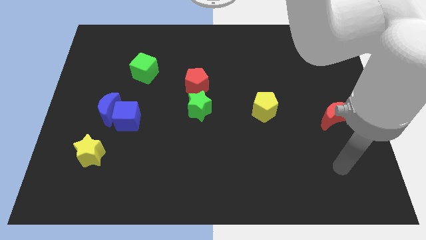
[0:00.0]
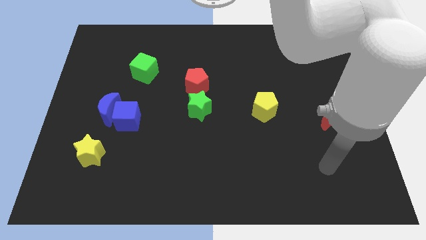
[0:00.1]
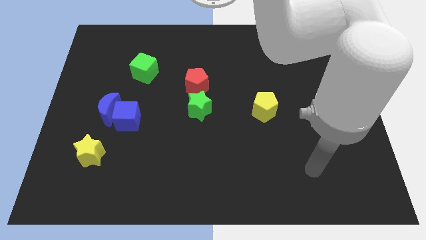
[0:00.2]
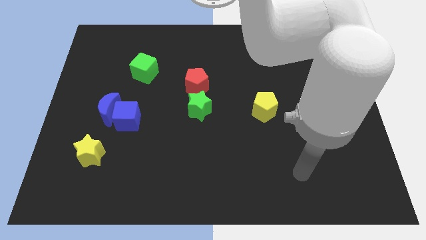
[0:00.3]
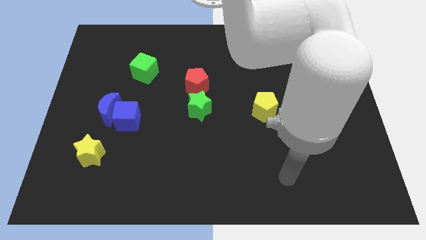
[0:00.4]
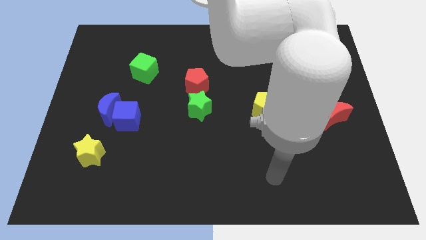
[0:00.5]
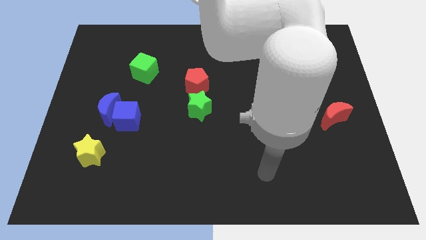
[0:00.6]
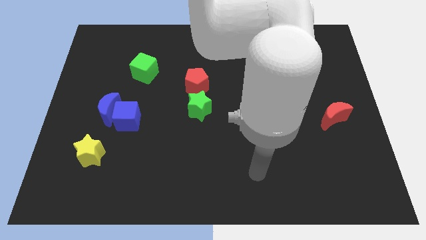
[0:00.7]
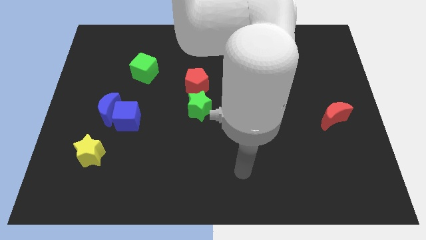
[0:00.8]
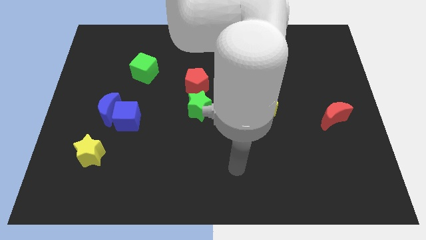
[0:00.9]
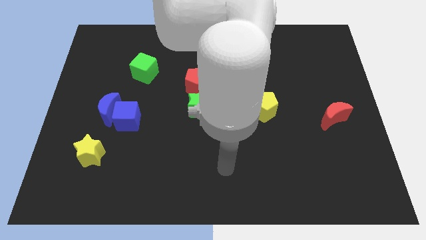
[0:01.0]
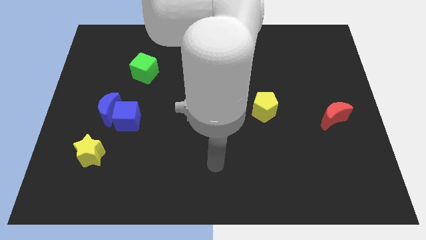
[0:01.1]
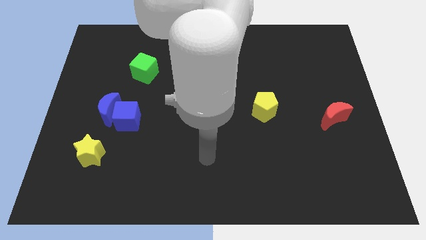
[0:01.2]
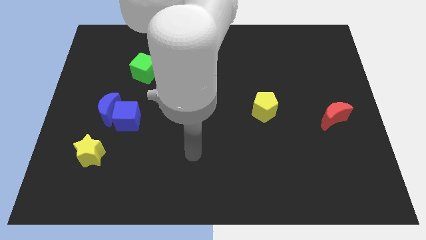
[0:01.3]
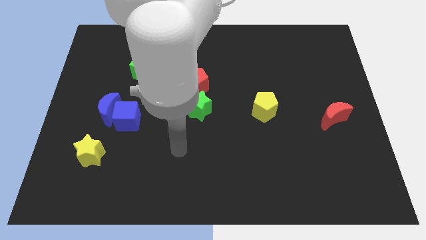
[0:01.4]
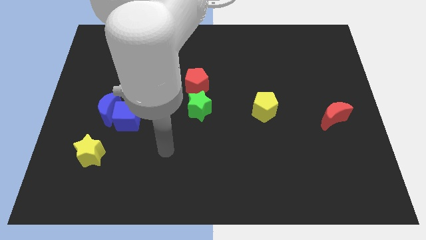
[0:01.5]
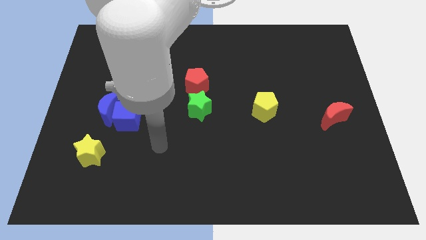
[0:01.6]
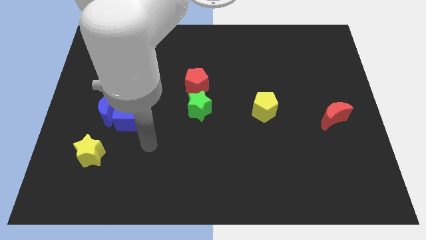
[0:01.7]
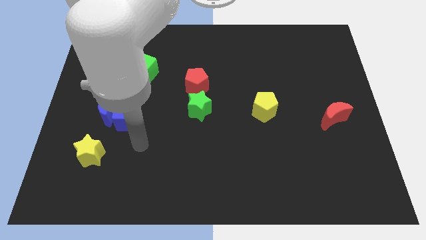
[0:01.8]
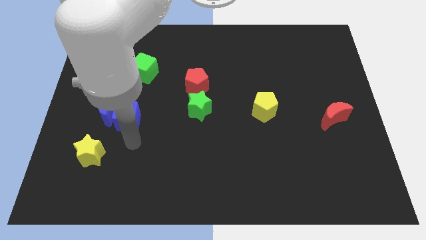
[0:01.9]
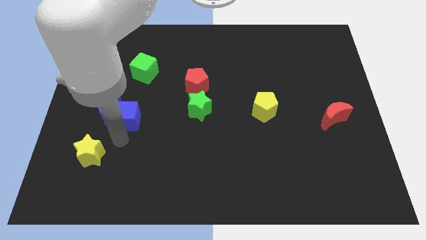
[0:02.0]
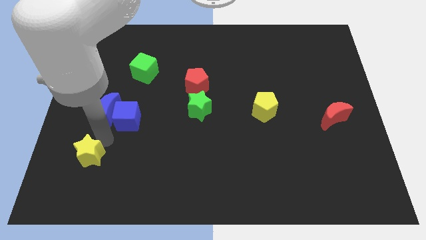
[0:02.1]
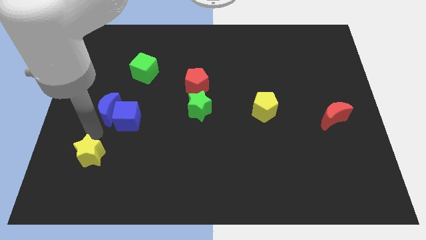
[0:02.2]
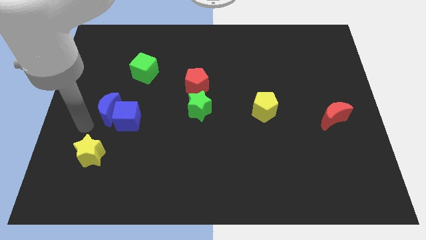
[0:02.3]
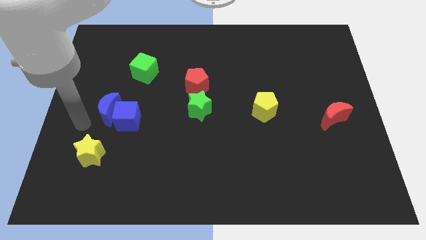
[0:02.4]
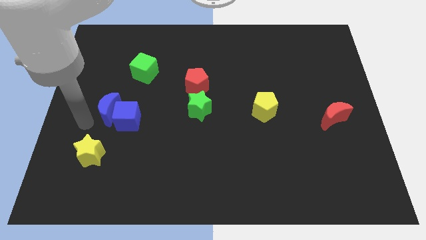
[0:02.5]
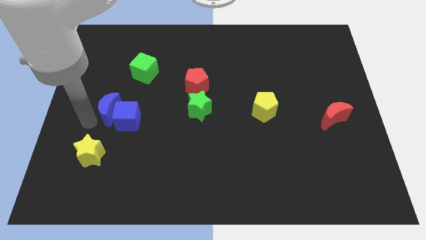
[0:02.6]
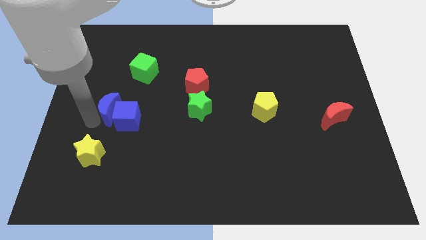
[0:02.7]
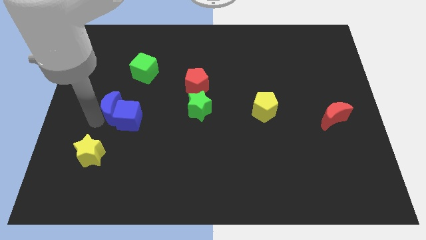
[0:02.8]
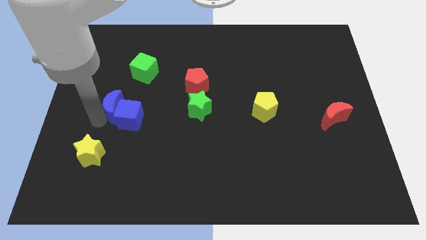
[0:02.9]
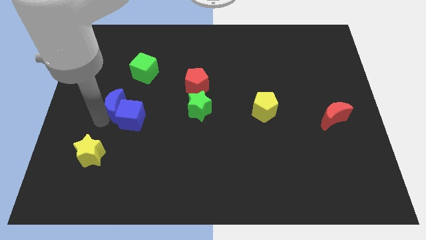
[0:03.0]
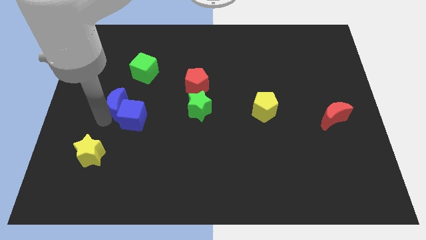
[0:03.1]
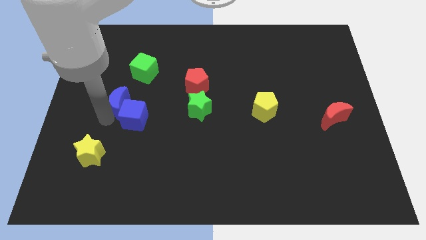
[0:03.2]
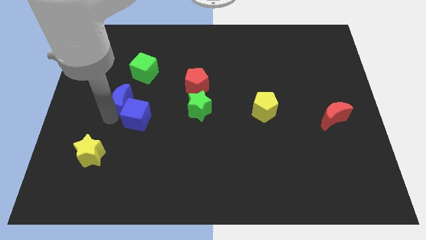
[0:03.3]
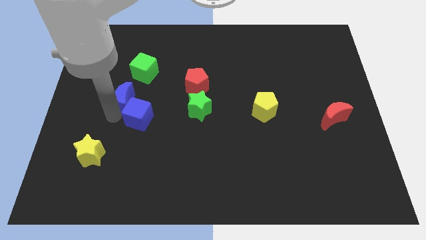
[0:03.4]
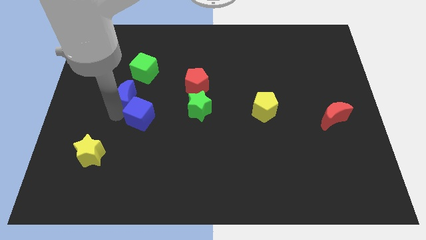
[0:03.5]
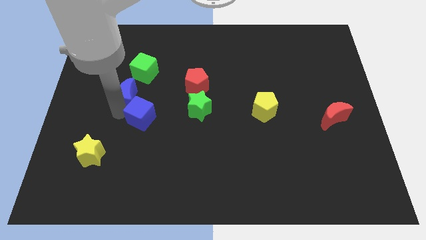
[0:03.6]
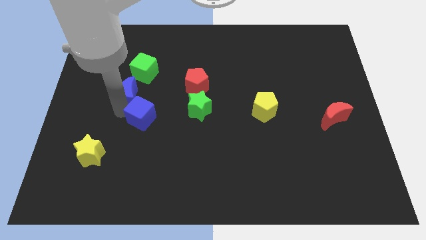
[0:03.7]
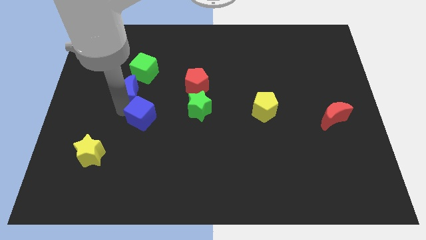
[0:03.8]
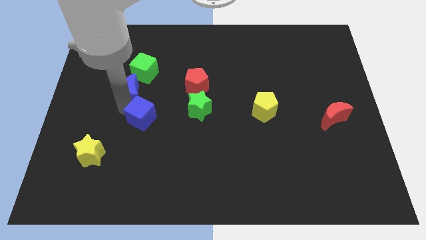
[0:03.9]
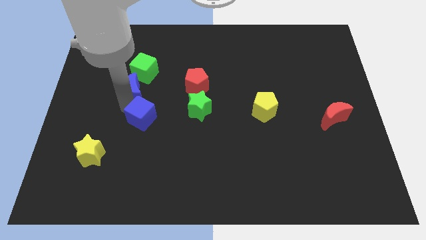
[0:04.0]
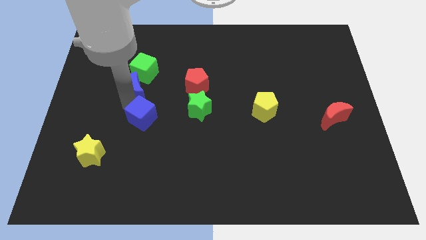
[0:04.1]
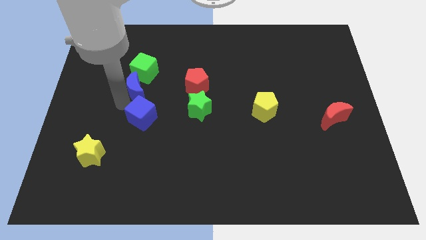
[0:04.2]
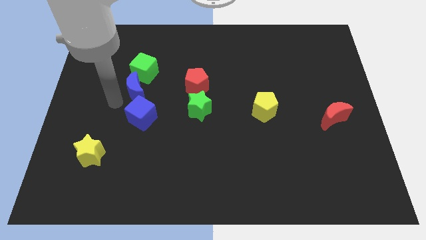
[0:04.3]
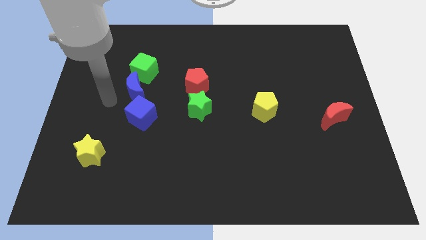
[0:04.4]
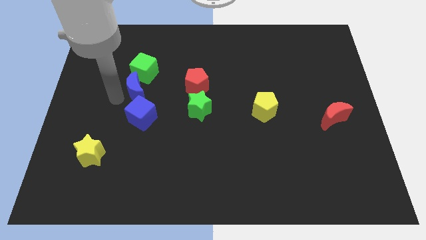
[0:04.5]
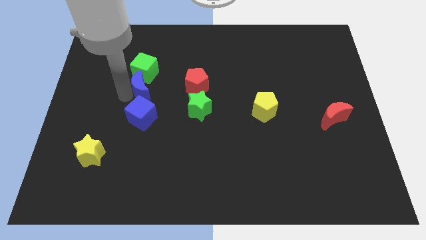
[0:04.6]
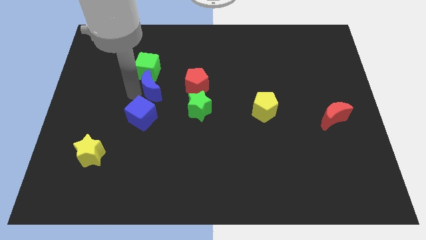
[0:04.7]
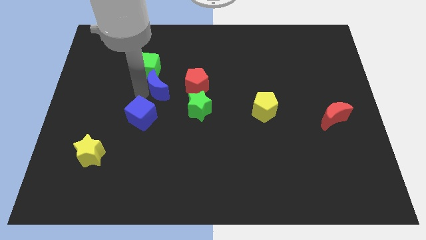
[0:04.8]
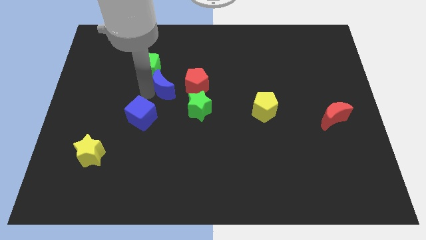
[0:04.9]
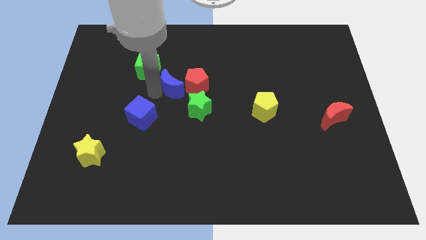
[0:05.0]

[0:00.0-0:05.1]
move the blue moon to the middle of the board
